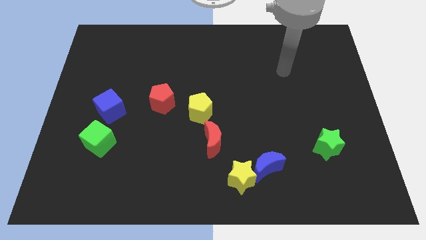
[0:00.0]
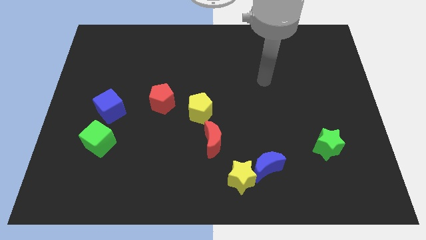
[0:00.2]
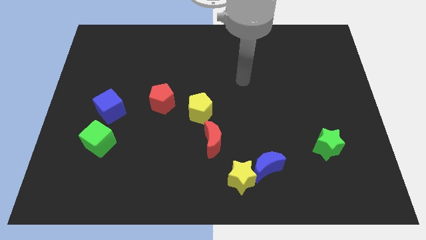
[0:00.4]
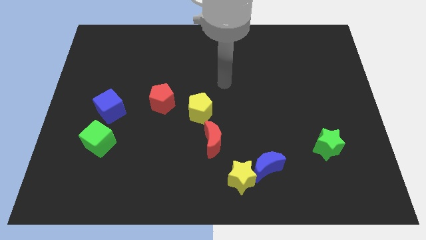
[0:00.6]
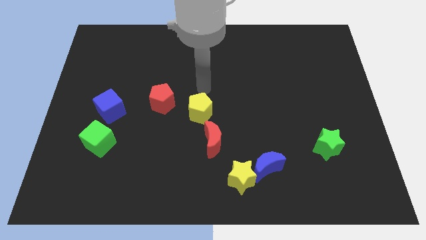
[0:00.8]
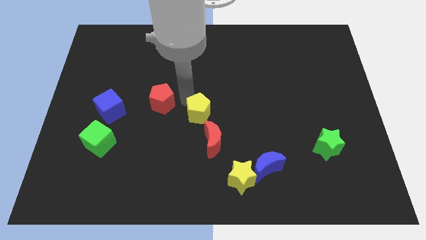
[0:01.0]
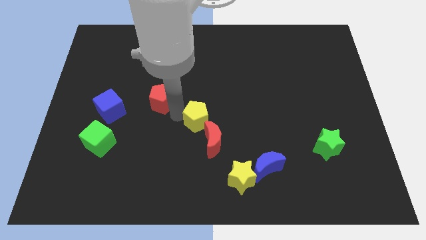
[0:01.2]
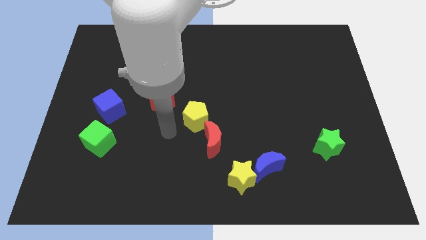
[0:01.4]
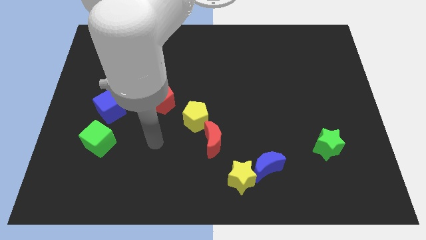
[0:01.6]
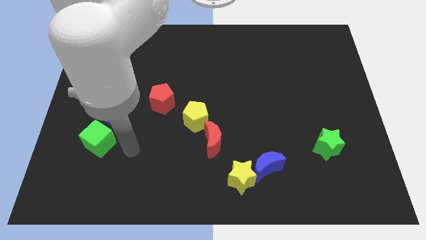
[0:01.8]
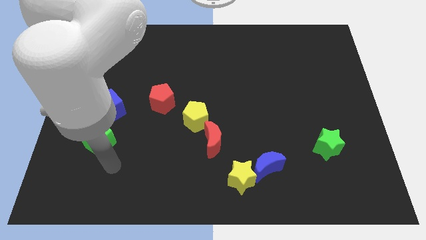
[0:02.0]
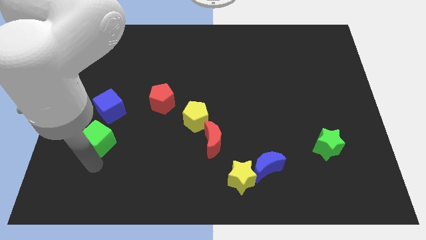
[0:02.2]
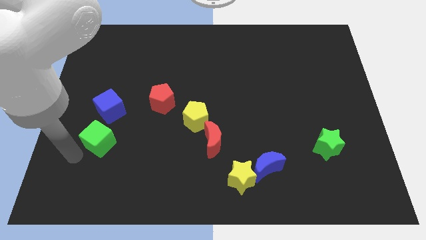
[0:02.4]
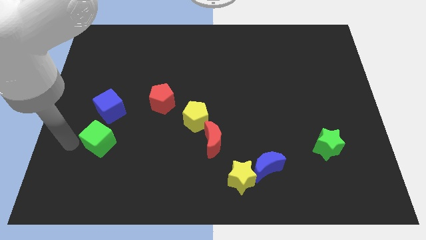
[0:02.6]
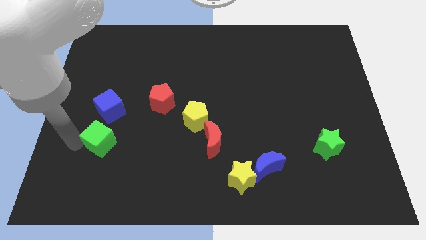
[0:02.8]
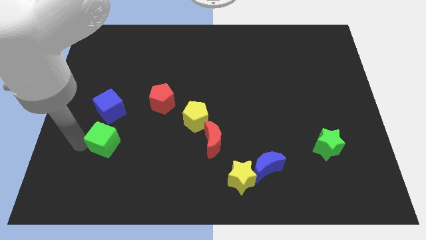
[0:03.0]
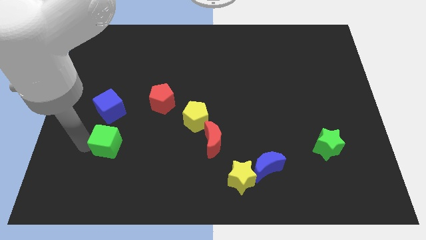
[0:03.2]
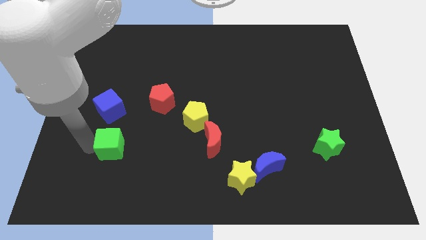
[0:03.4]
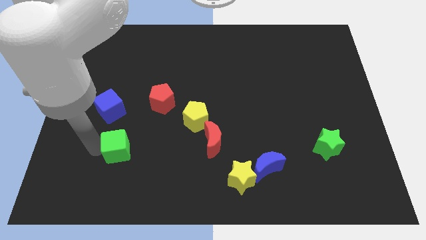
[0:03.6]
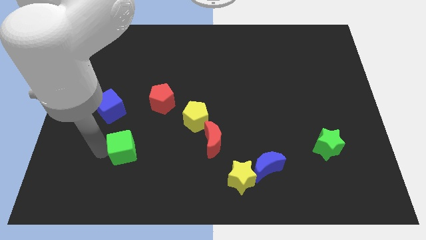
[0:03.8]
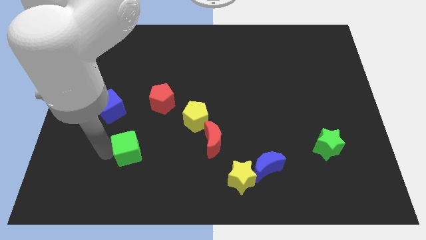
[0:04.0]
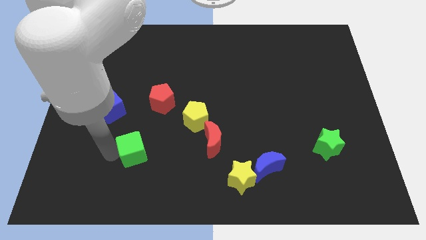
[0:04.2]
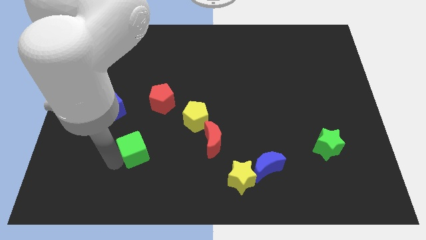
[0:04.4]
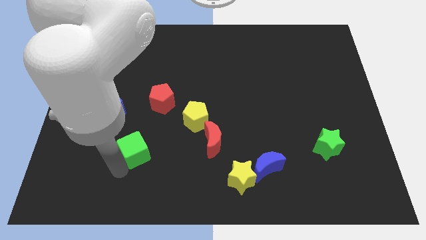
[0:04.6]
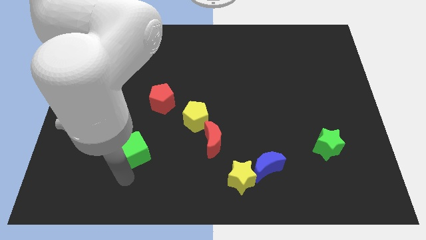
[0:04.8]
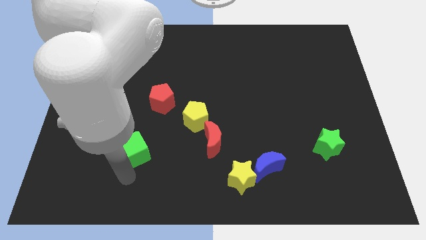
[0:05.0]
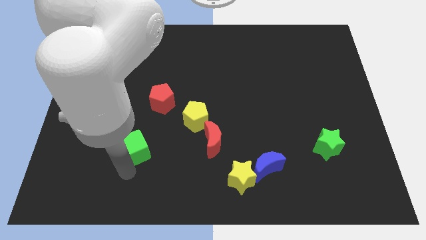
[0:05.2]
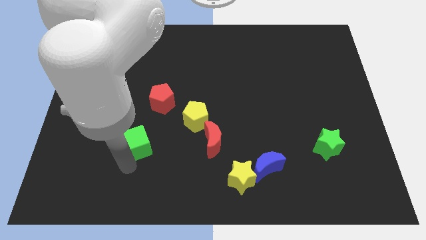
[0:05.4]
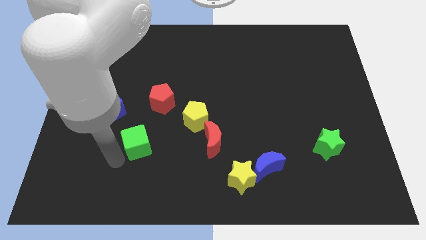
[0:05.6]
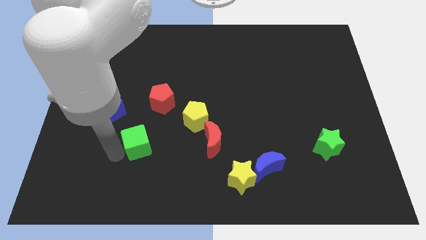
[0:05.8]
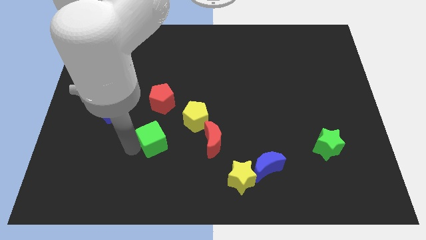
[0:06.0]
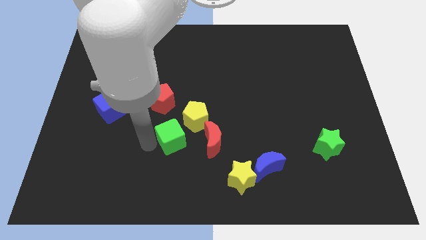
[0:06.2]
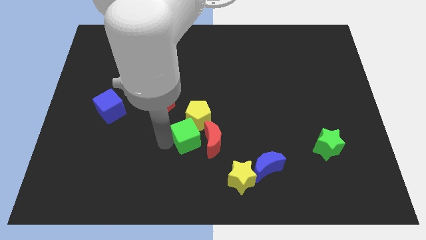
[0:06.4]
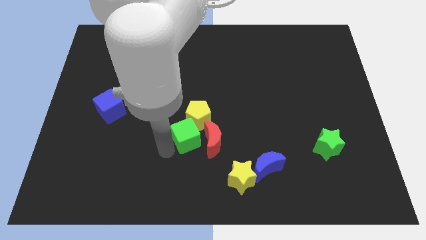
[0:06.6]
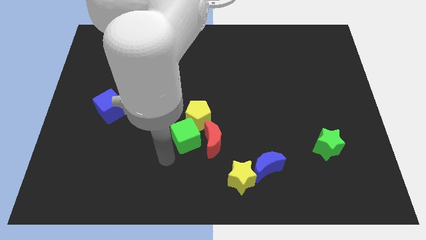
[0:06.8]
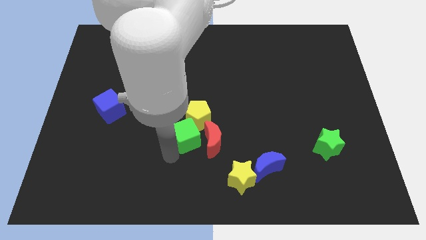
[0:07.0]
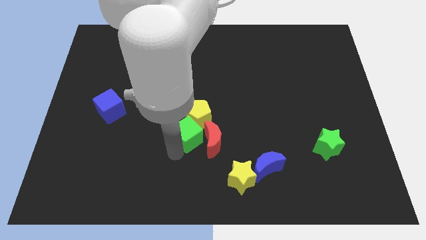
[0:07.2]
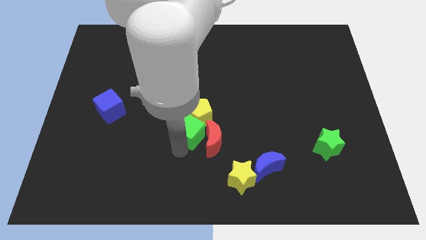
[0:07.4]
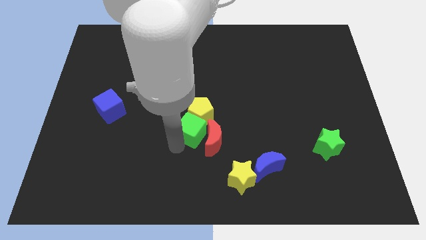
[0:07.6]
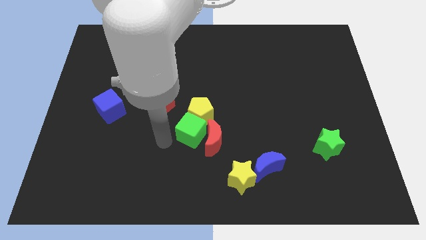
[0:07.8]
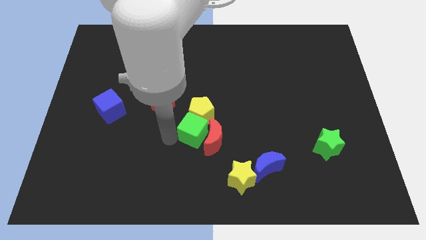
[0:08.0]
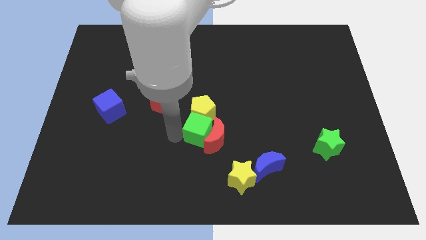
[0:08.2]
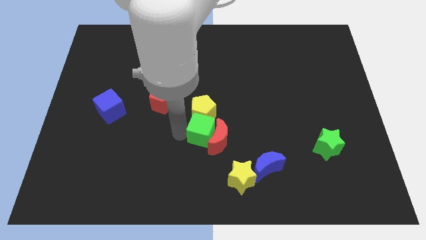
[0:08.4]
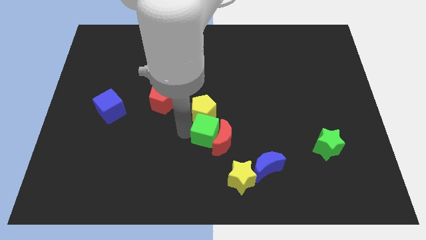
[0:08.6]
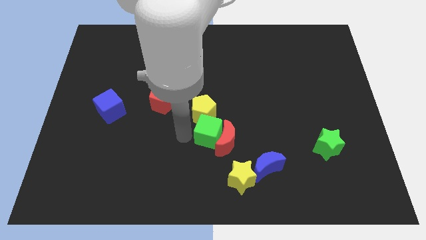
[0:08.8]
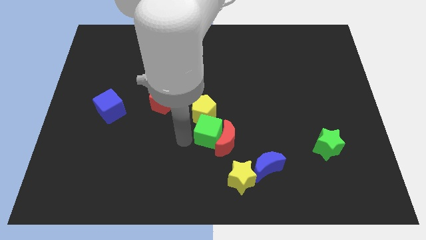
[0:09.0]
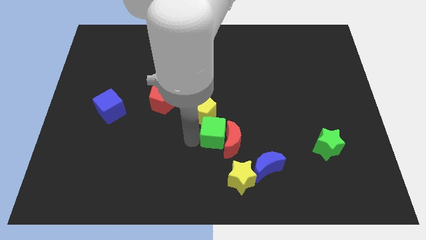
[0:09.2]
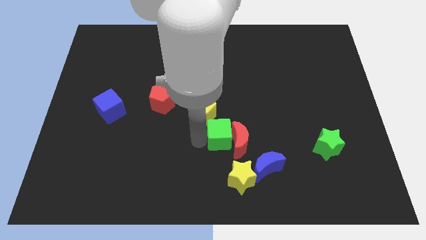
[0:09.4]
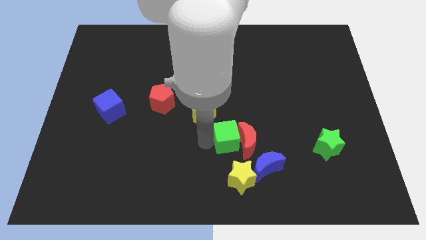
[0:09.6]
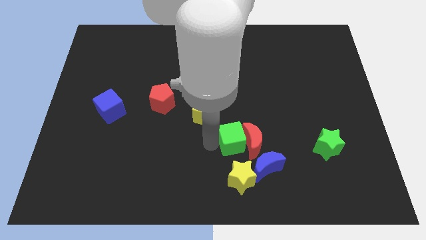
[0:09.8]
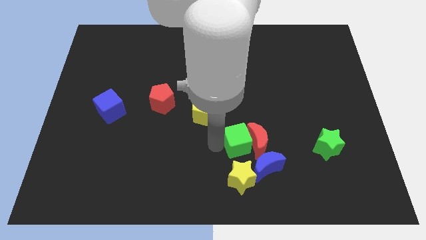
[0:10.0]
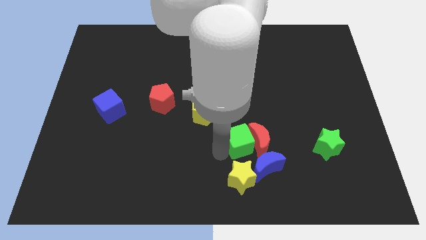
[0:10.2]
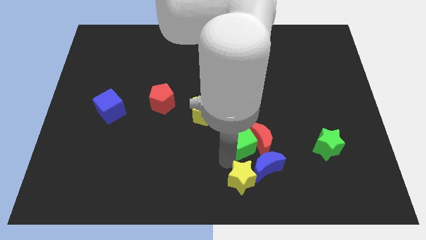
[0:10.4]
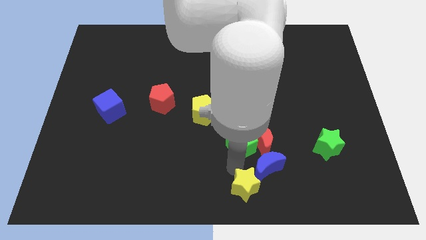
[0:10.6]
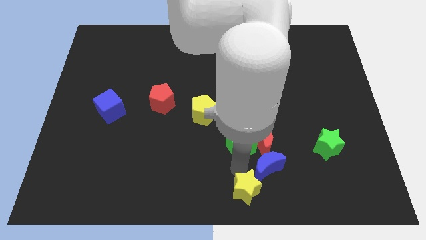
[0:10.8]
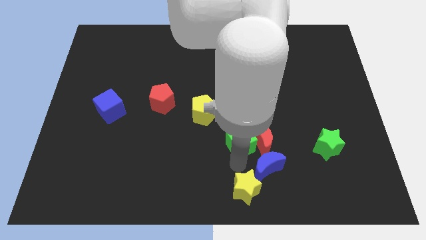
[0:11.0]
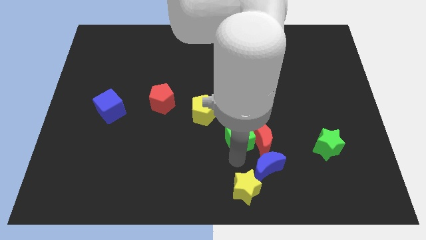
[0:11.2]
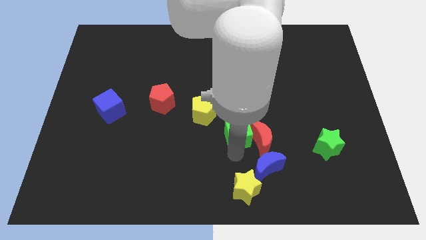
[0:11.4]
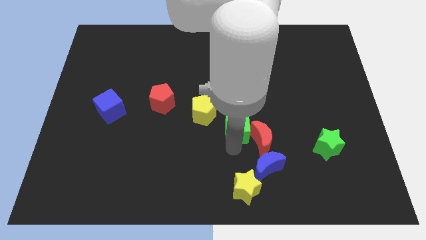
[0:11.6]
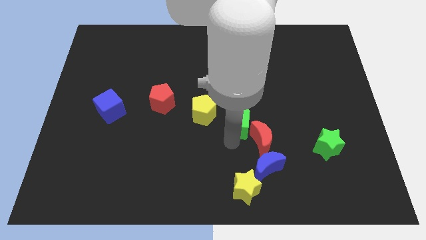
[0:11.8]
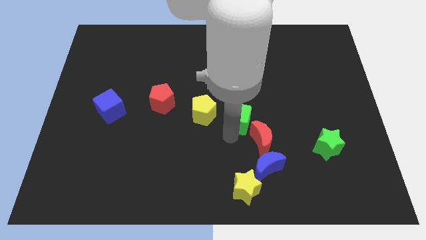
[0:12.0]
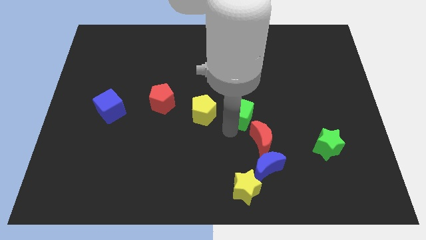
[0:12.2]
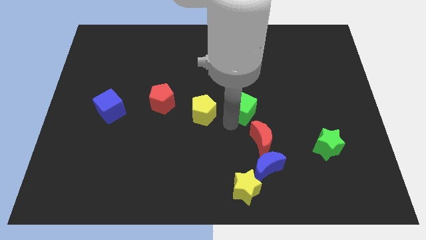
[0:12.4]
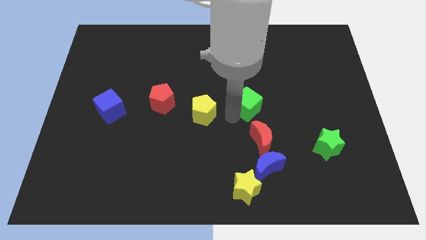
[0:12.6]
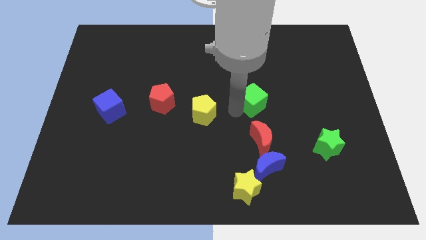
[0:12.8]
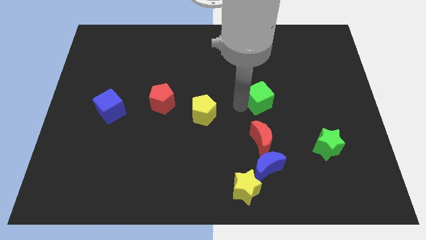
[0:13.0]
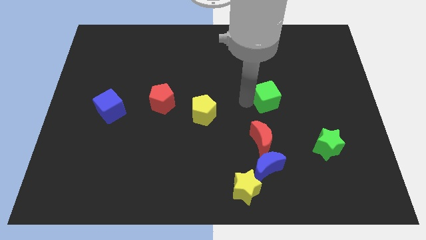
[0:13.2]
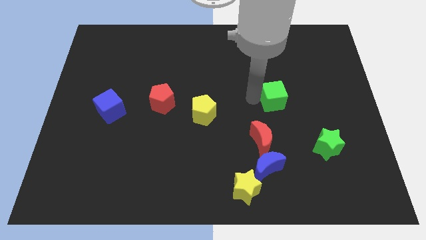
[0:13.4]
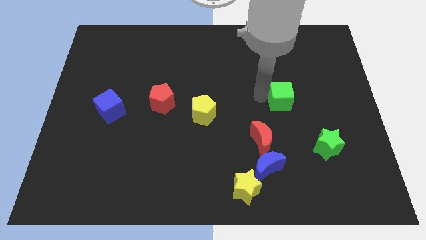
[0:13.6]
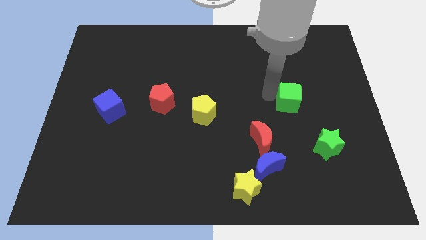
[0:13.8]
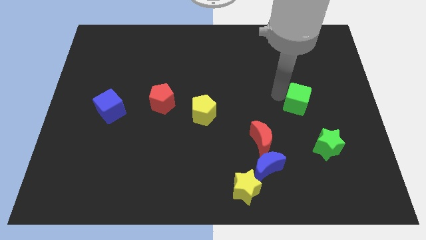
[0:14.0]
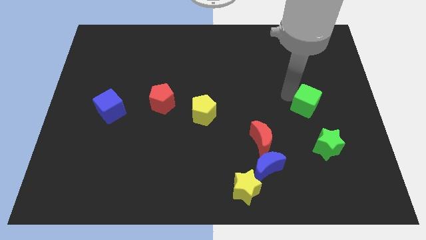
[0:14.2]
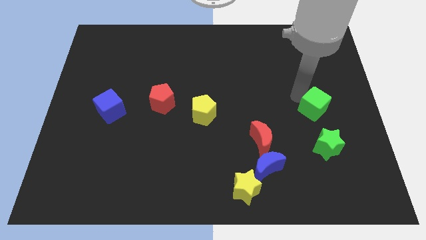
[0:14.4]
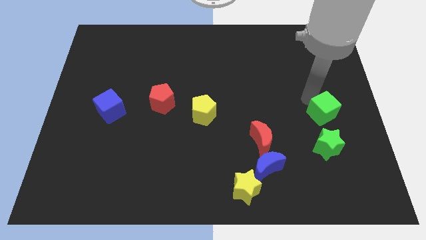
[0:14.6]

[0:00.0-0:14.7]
slide the green cube to the right side of the board
